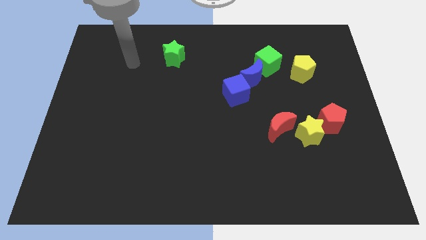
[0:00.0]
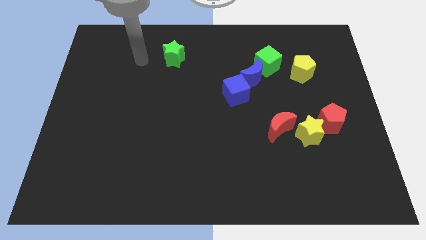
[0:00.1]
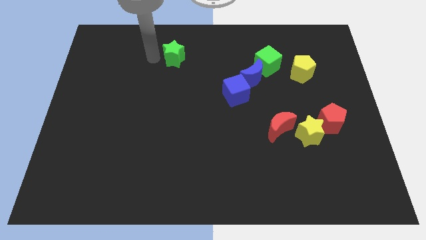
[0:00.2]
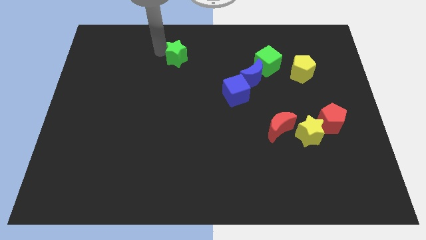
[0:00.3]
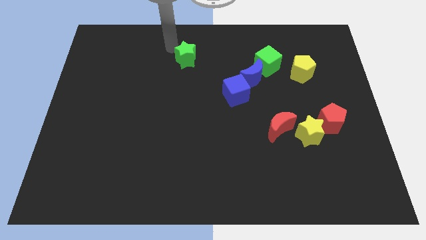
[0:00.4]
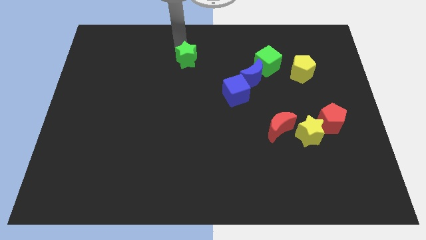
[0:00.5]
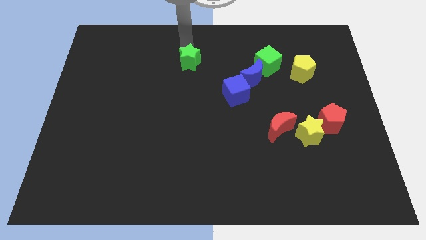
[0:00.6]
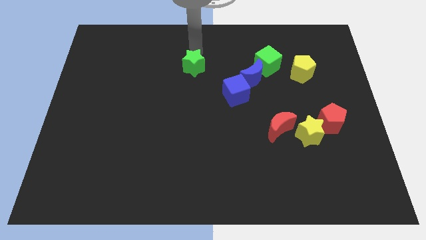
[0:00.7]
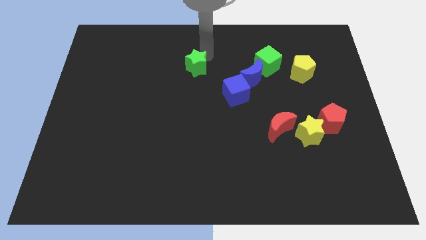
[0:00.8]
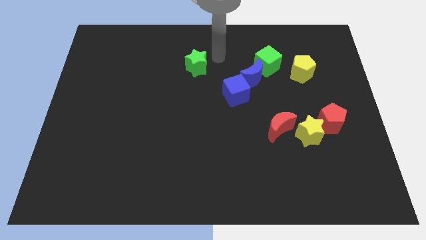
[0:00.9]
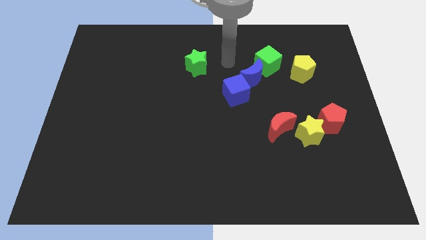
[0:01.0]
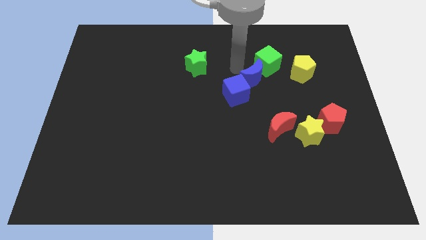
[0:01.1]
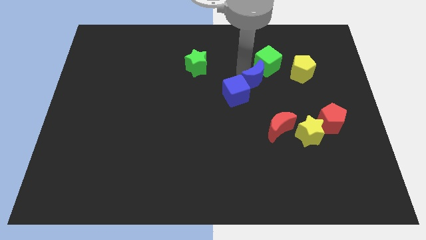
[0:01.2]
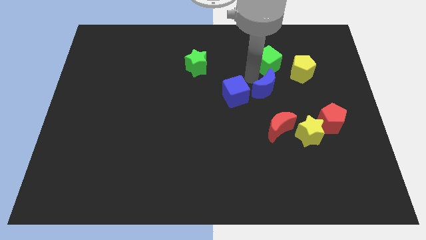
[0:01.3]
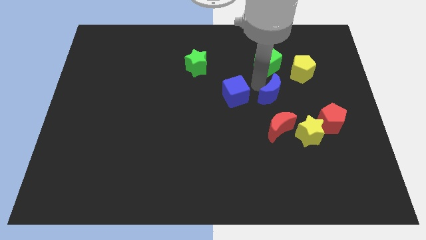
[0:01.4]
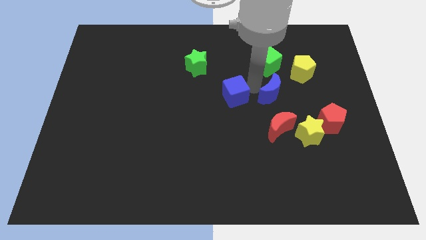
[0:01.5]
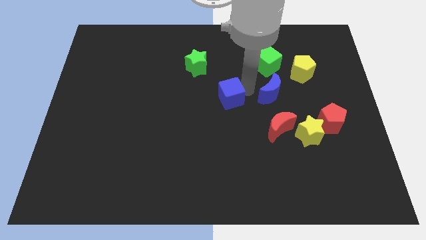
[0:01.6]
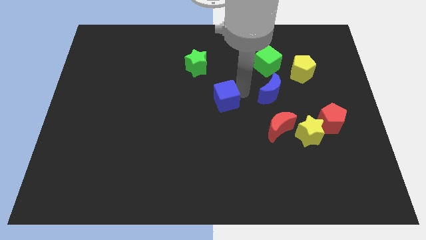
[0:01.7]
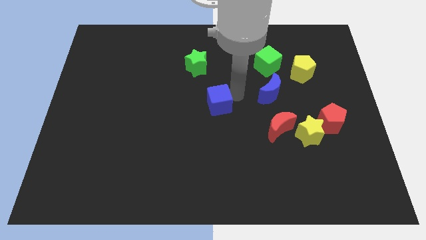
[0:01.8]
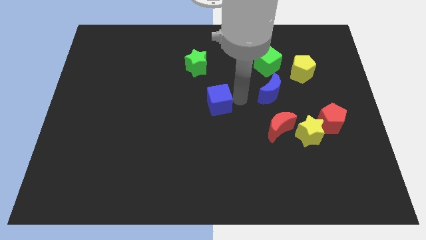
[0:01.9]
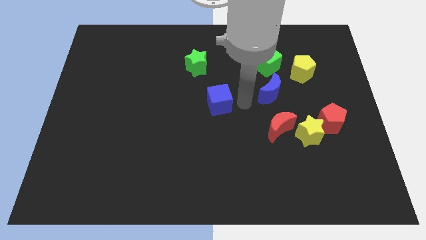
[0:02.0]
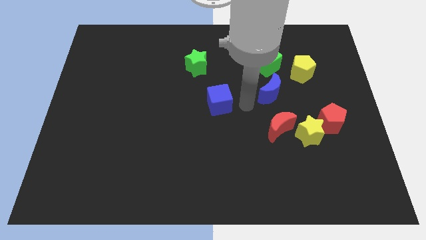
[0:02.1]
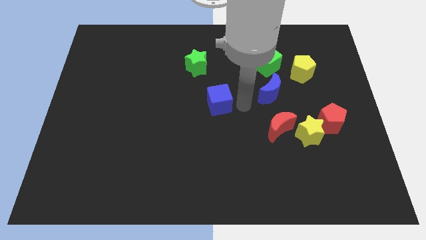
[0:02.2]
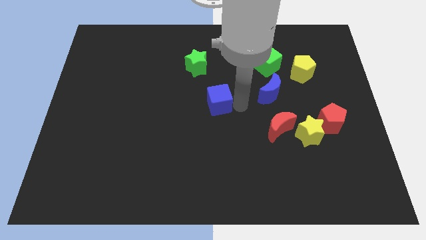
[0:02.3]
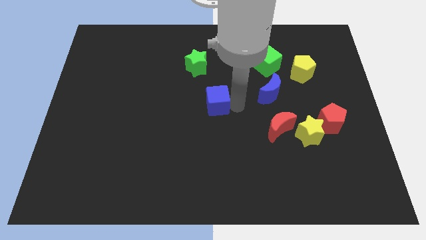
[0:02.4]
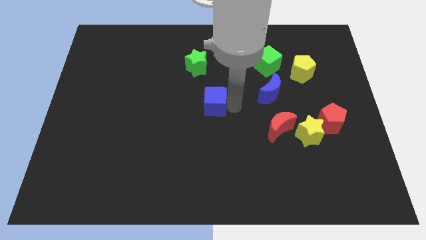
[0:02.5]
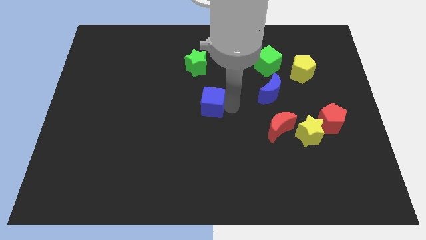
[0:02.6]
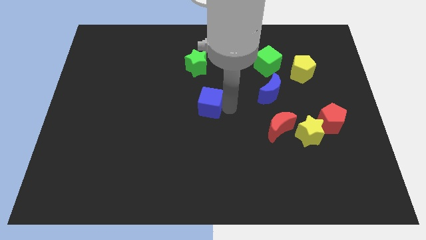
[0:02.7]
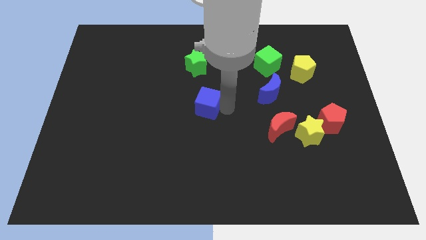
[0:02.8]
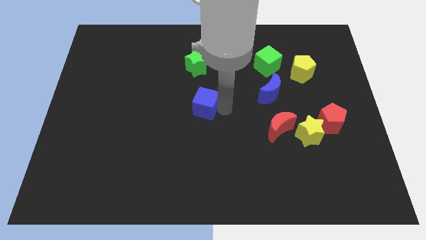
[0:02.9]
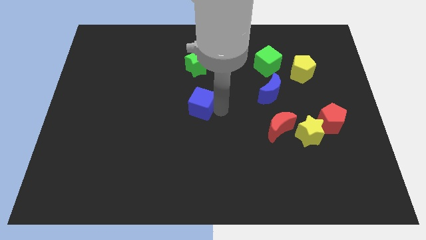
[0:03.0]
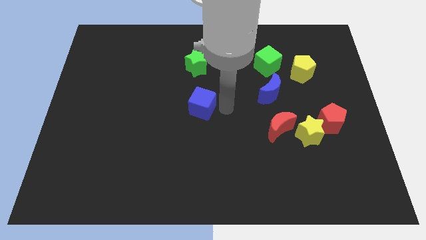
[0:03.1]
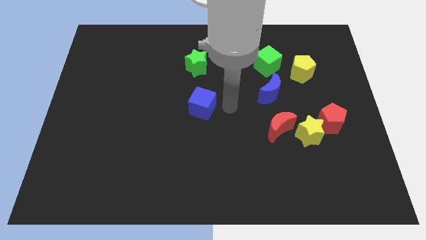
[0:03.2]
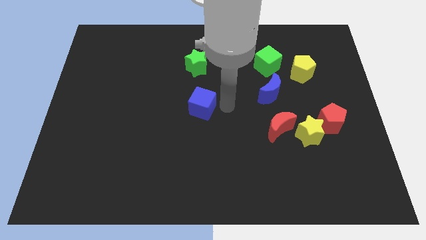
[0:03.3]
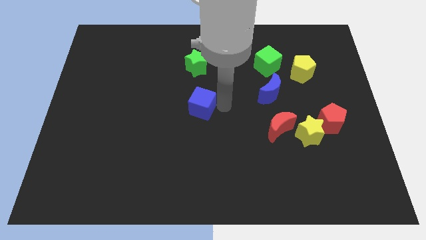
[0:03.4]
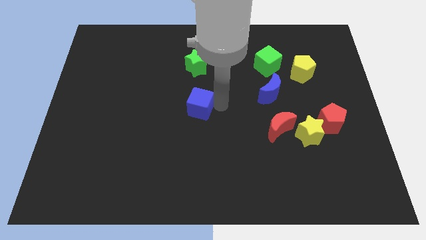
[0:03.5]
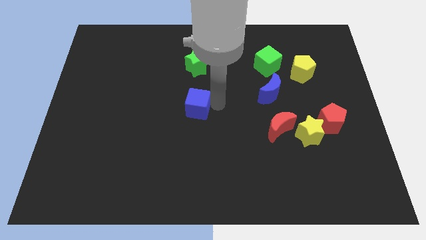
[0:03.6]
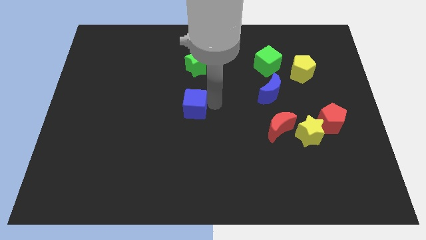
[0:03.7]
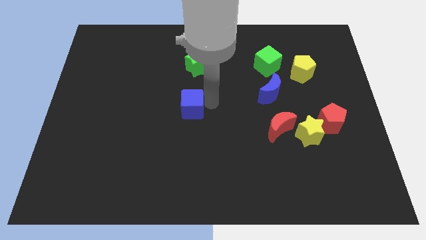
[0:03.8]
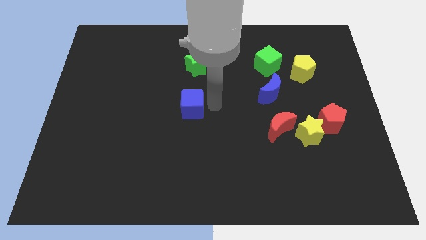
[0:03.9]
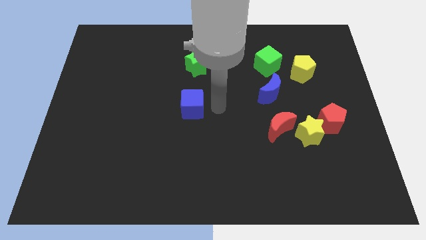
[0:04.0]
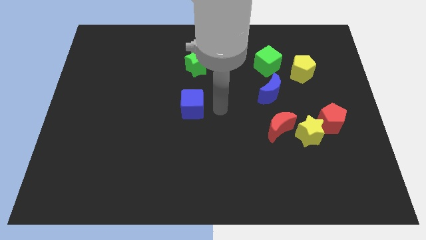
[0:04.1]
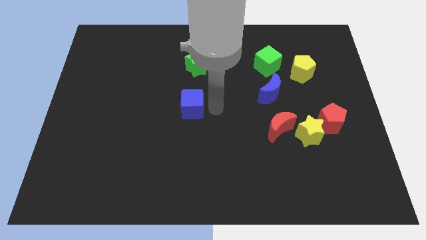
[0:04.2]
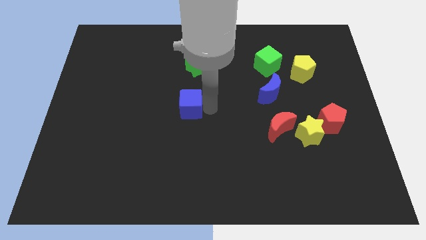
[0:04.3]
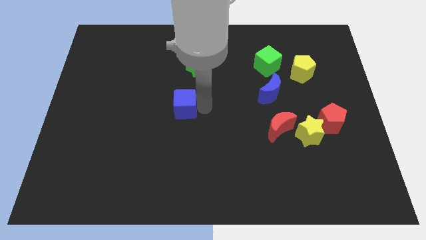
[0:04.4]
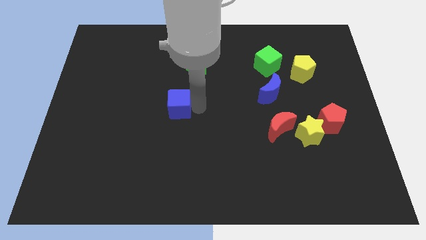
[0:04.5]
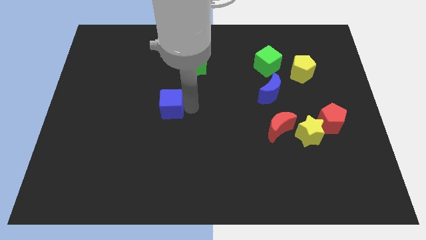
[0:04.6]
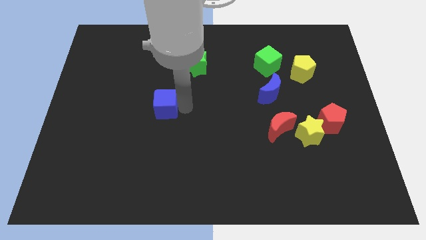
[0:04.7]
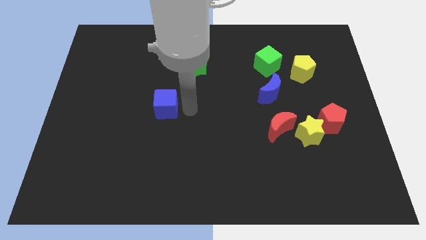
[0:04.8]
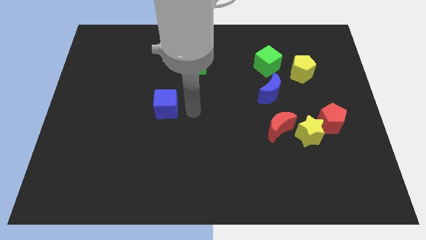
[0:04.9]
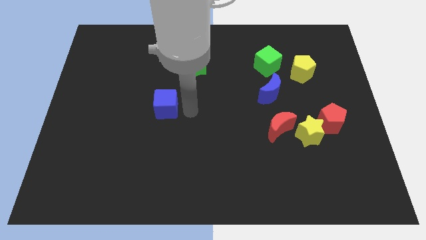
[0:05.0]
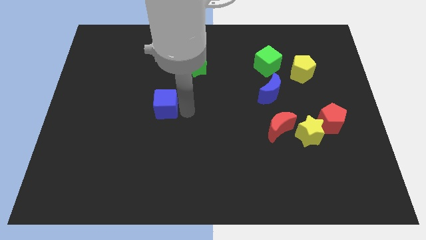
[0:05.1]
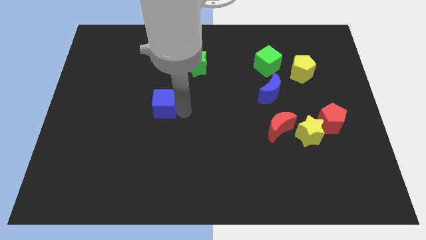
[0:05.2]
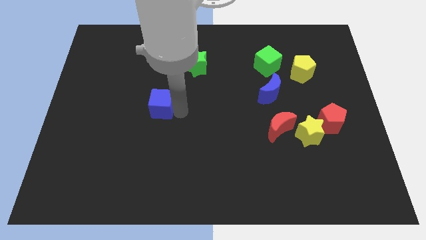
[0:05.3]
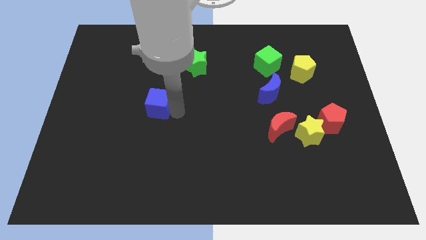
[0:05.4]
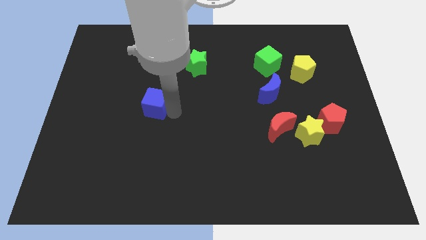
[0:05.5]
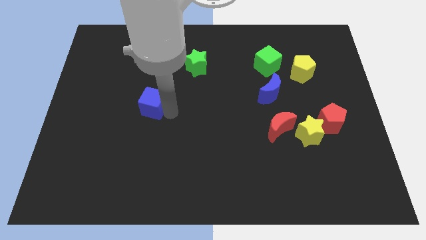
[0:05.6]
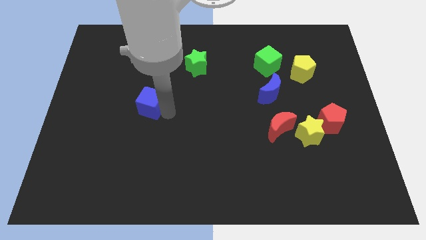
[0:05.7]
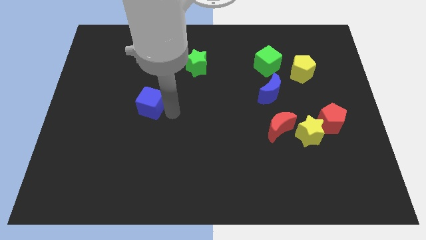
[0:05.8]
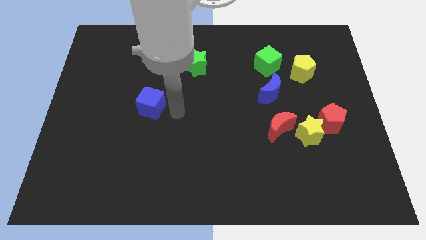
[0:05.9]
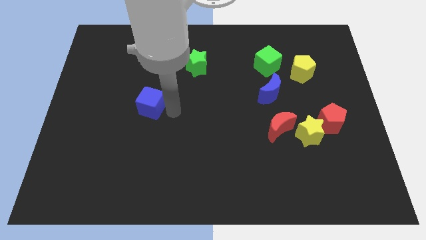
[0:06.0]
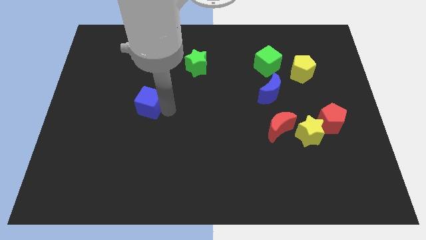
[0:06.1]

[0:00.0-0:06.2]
move the blue cube left

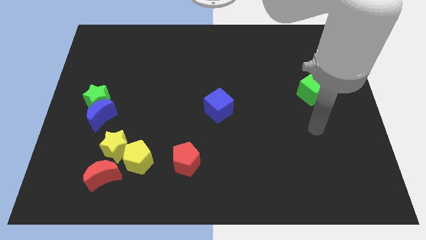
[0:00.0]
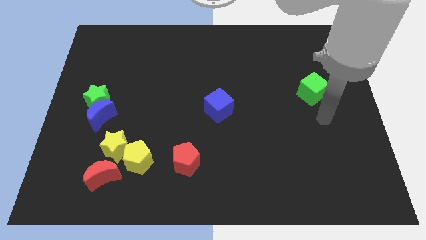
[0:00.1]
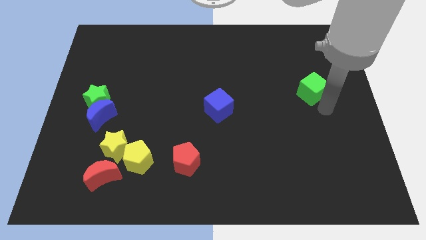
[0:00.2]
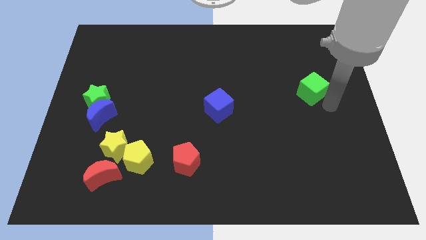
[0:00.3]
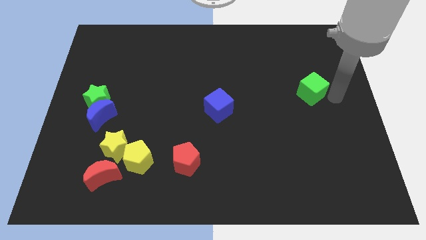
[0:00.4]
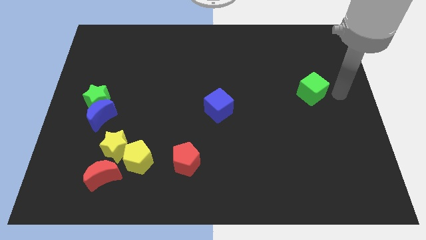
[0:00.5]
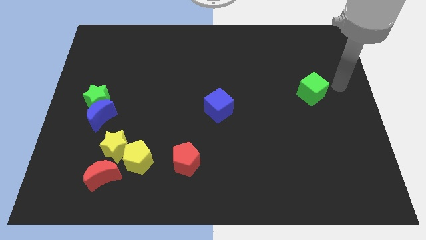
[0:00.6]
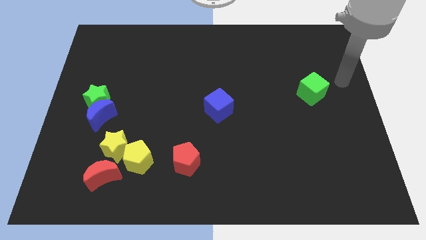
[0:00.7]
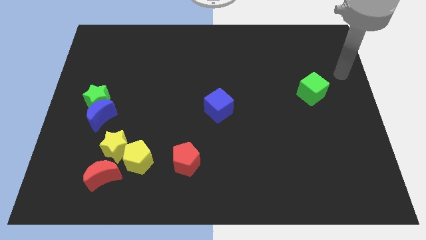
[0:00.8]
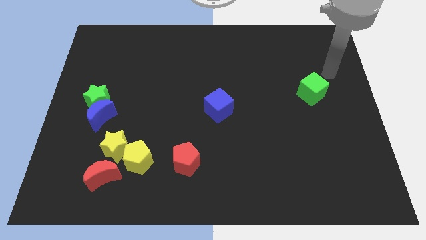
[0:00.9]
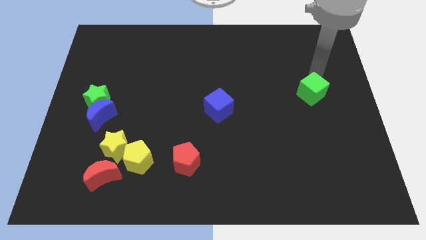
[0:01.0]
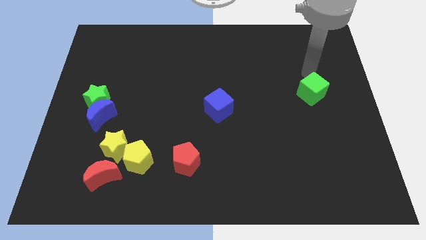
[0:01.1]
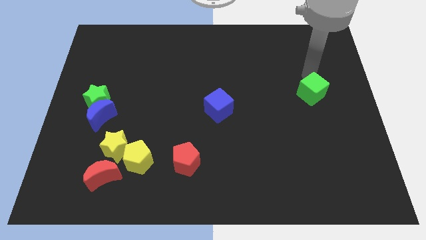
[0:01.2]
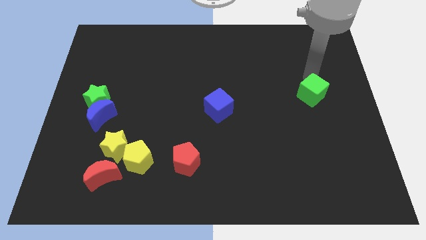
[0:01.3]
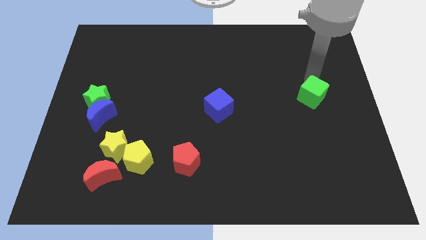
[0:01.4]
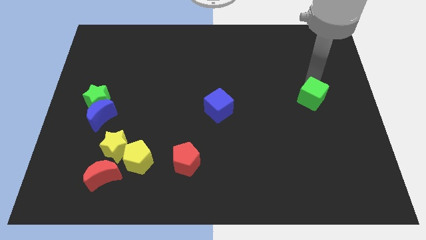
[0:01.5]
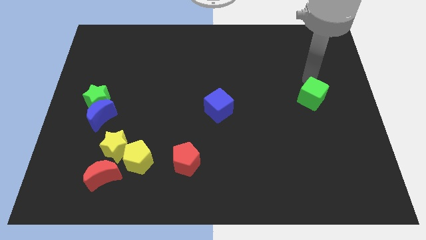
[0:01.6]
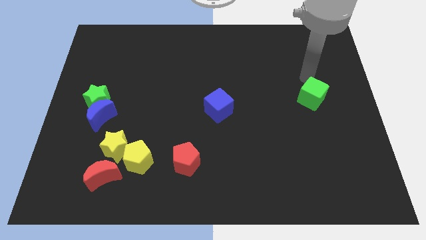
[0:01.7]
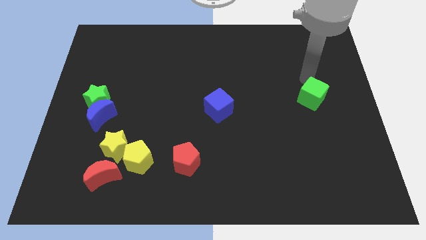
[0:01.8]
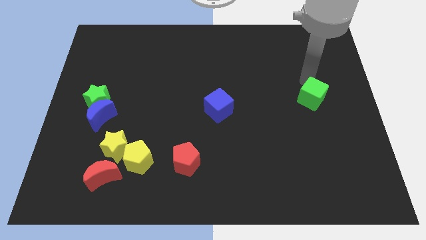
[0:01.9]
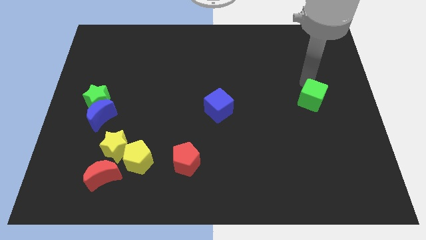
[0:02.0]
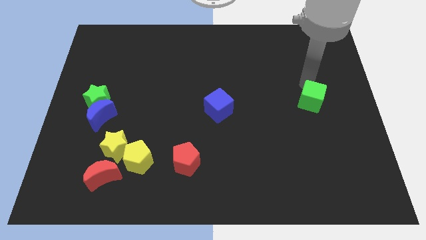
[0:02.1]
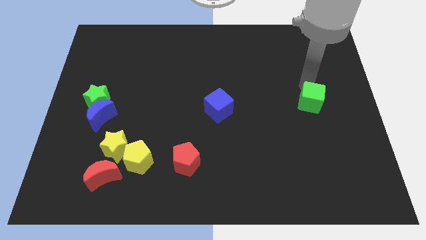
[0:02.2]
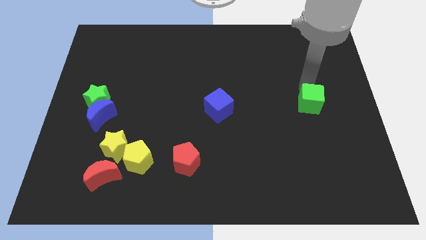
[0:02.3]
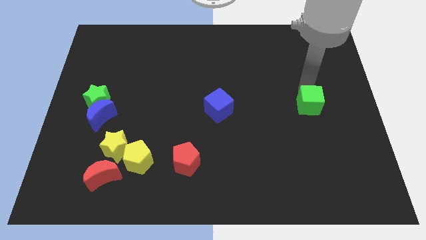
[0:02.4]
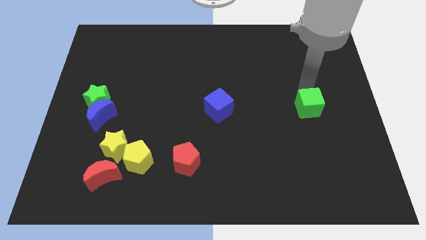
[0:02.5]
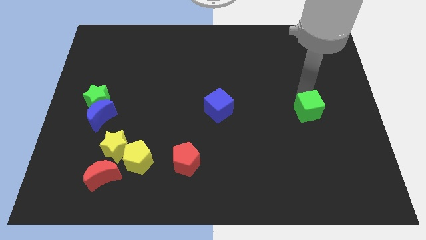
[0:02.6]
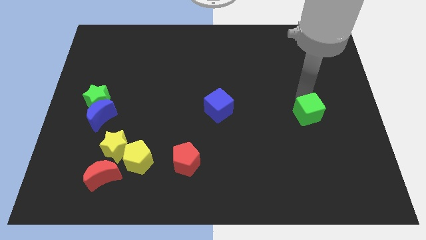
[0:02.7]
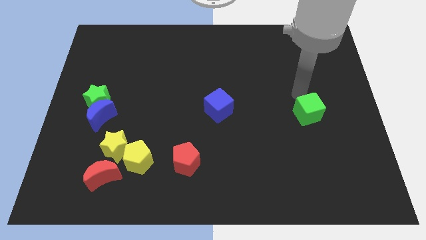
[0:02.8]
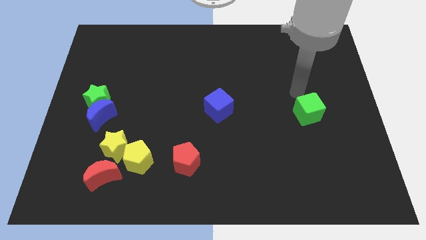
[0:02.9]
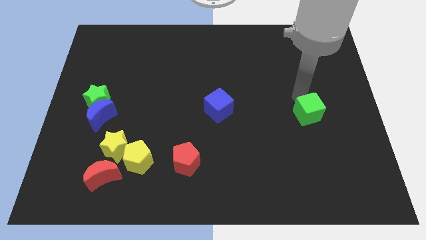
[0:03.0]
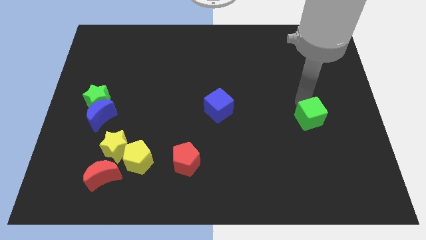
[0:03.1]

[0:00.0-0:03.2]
slide the green cube down somewhat
